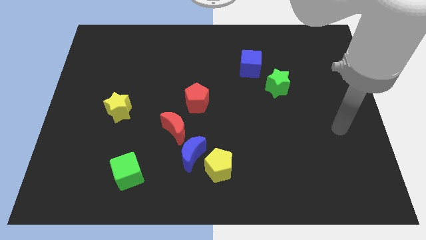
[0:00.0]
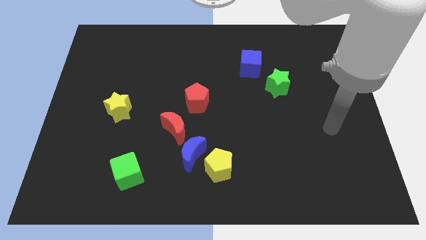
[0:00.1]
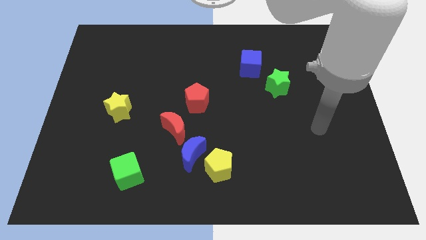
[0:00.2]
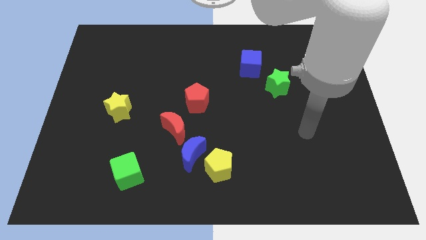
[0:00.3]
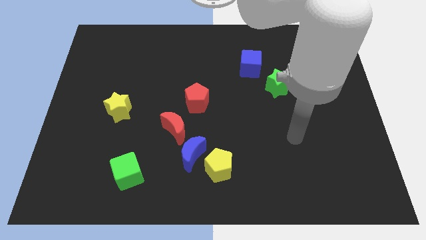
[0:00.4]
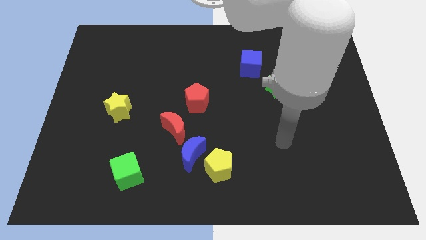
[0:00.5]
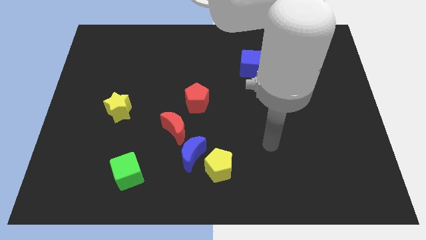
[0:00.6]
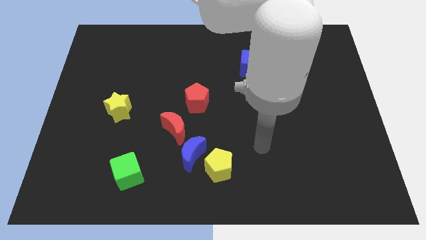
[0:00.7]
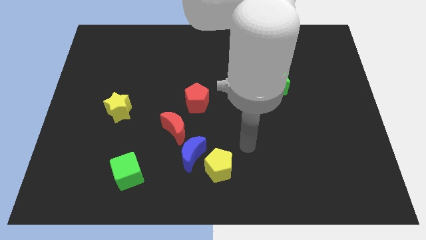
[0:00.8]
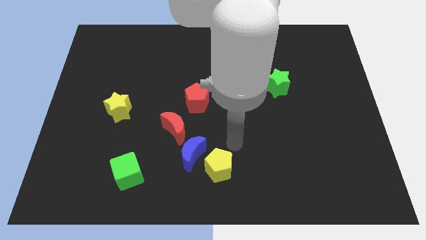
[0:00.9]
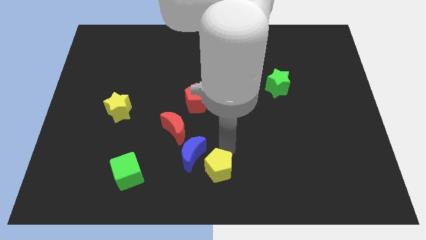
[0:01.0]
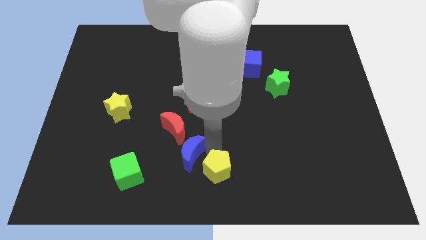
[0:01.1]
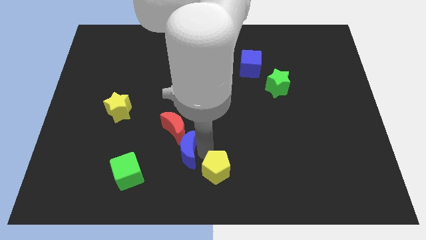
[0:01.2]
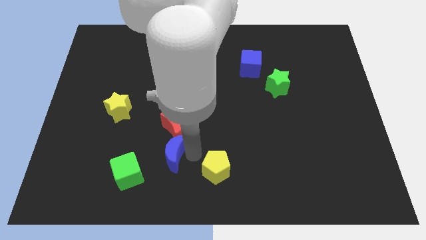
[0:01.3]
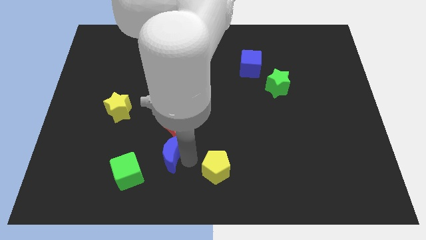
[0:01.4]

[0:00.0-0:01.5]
move the yellow pentagon away from the blue moon

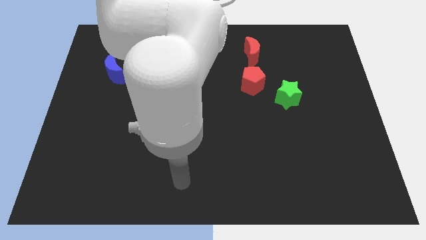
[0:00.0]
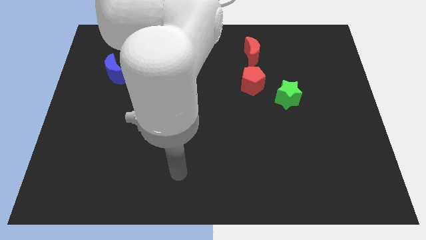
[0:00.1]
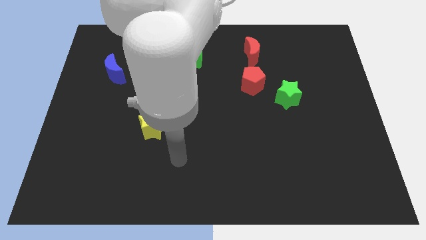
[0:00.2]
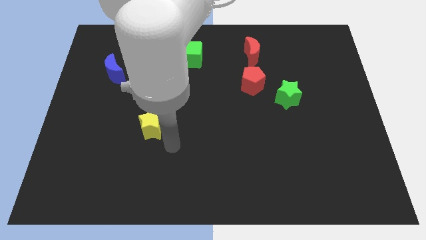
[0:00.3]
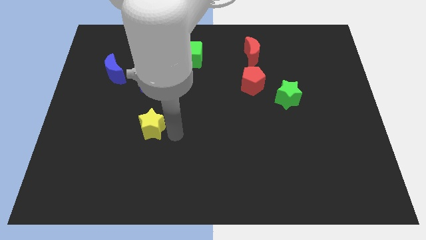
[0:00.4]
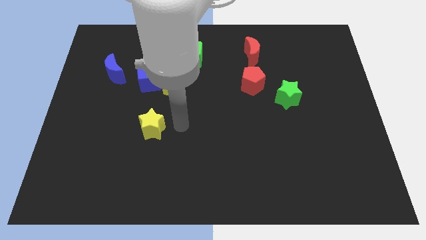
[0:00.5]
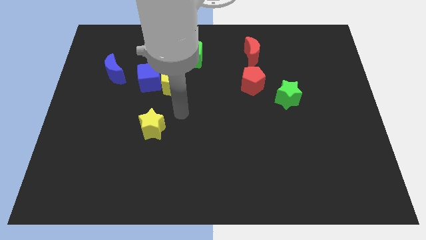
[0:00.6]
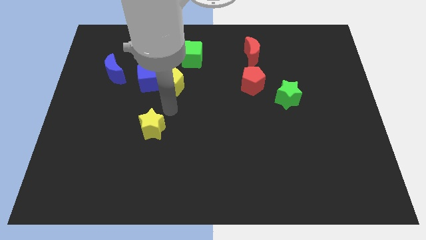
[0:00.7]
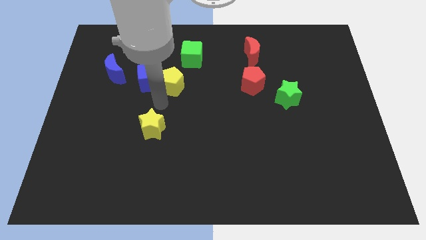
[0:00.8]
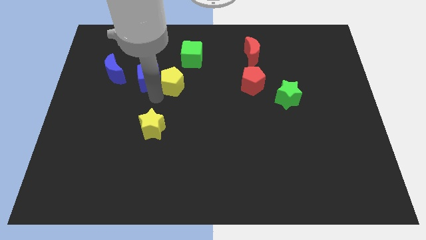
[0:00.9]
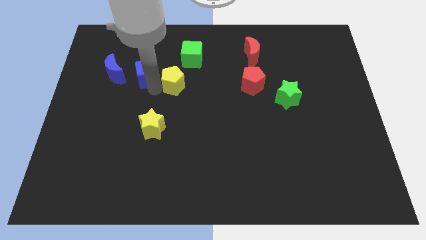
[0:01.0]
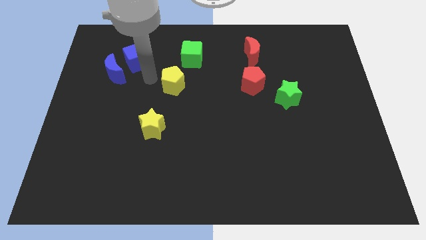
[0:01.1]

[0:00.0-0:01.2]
move the yellow pentagon away from the blue cube

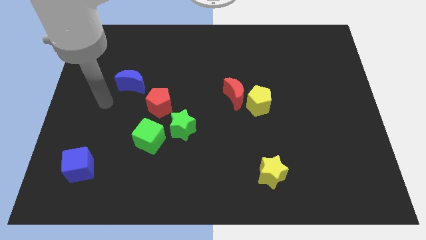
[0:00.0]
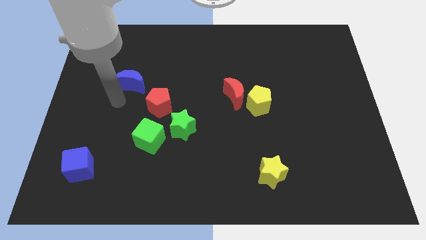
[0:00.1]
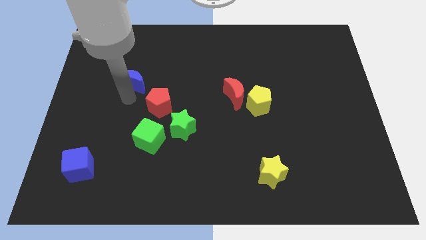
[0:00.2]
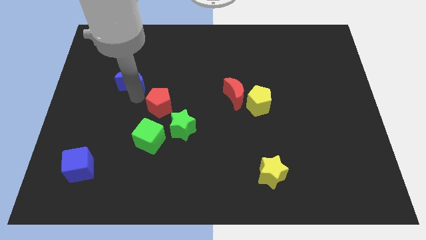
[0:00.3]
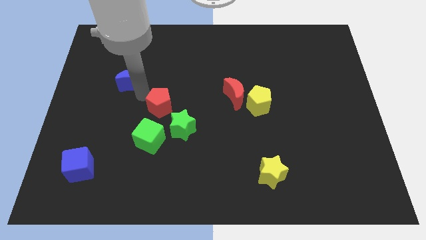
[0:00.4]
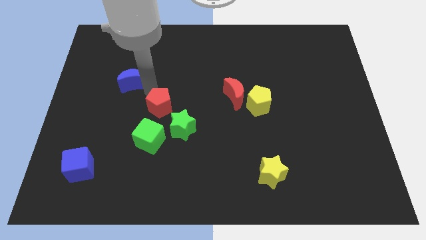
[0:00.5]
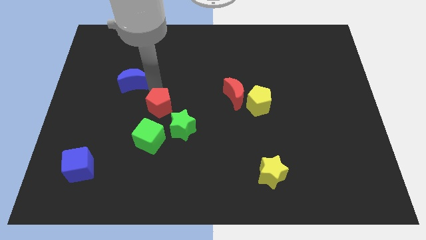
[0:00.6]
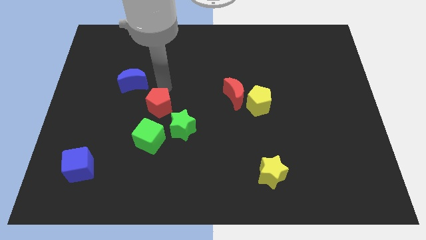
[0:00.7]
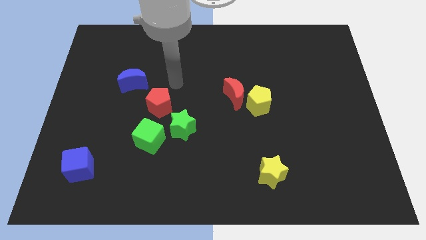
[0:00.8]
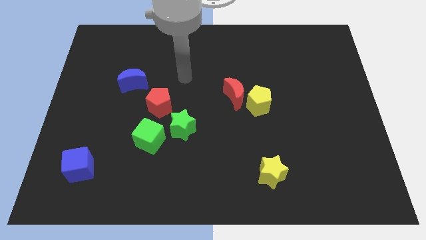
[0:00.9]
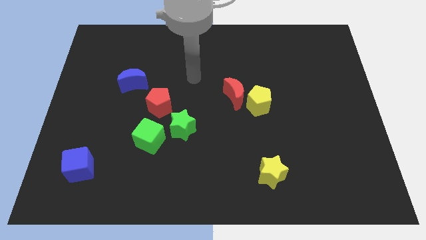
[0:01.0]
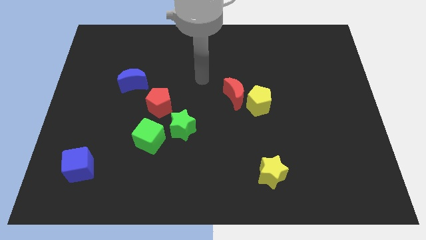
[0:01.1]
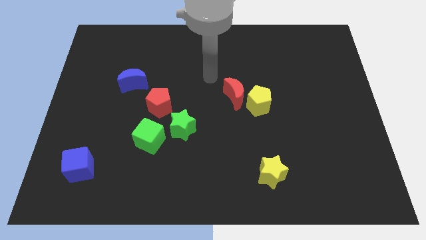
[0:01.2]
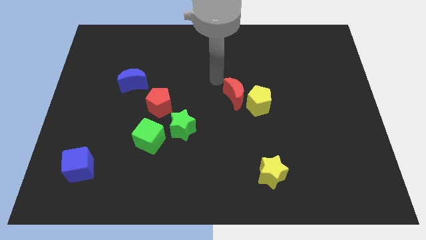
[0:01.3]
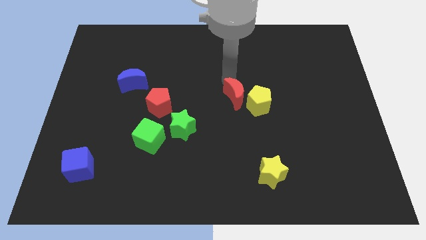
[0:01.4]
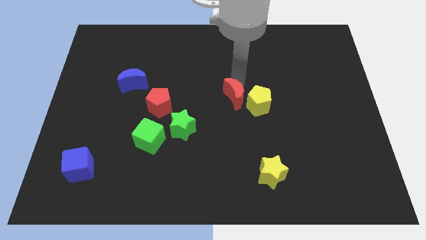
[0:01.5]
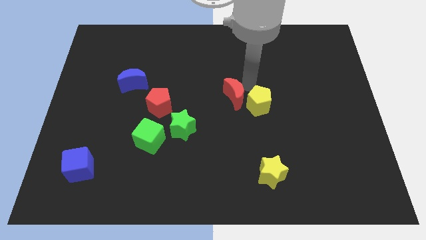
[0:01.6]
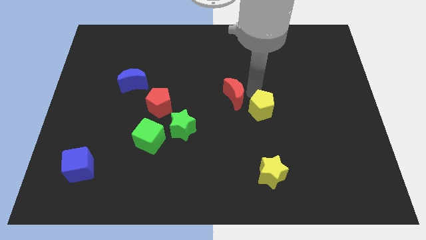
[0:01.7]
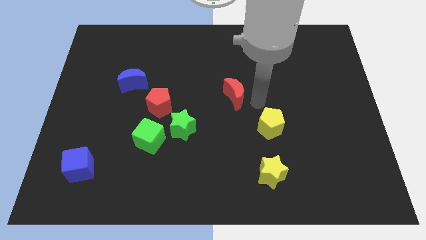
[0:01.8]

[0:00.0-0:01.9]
pull the red moon apart from the yellow pentagon

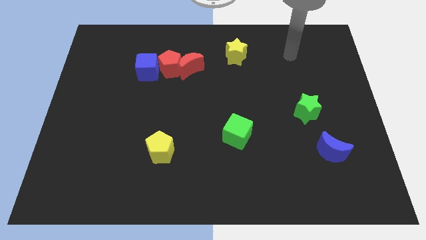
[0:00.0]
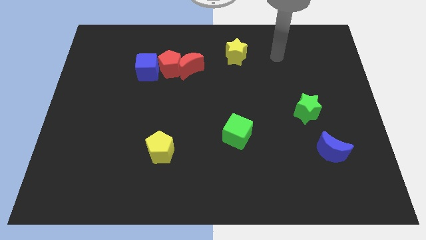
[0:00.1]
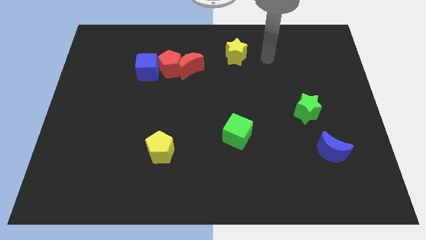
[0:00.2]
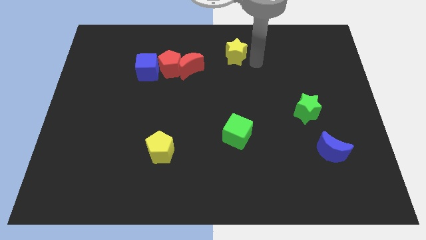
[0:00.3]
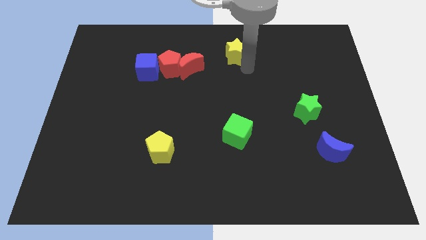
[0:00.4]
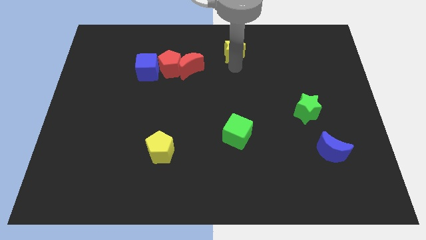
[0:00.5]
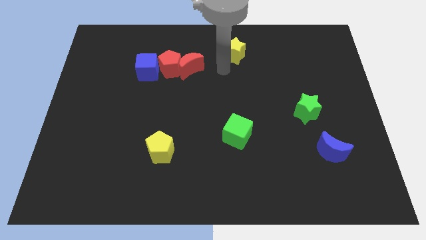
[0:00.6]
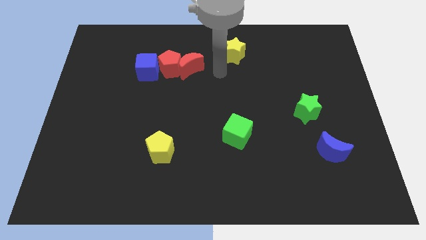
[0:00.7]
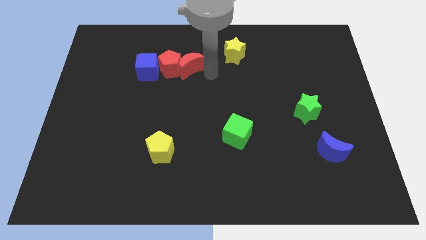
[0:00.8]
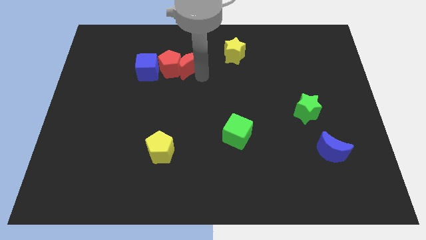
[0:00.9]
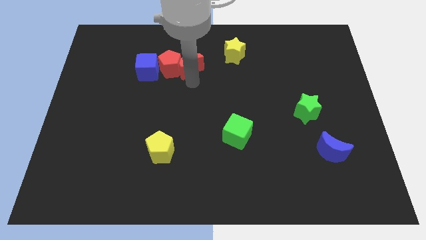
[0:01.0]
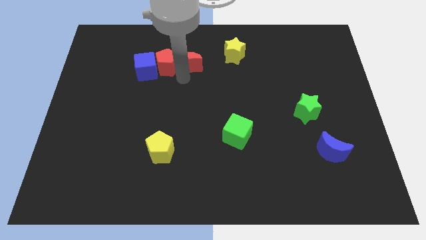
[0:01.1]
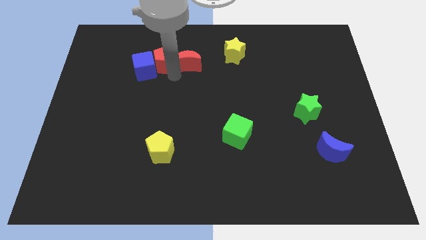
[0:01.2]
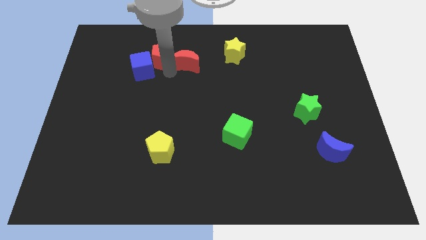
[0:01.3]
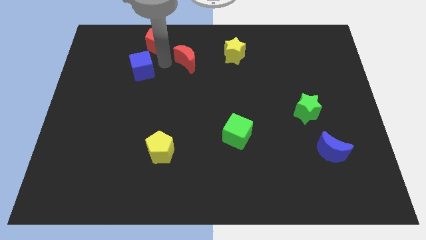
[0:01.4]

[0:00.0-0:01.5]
separate the red moon from the red pentagon

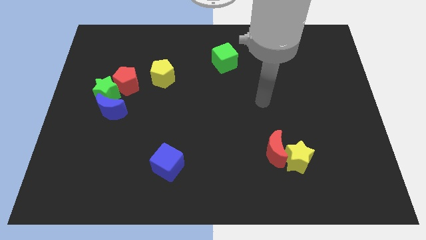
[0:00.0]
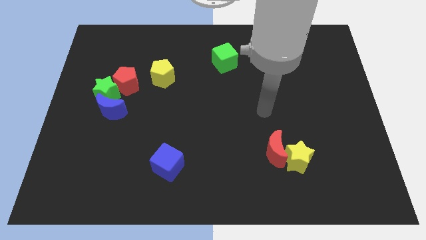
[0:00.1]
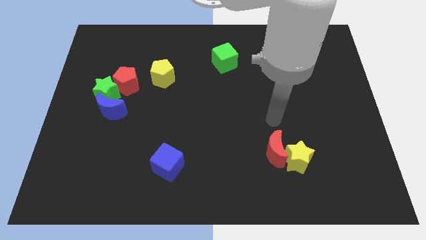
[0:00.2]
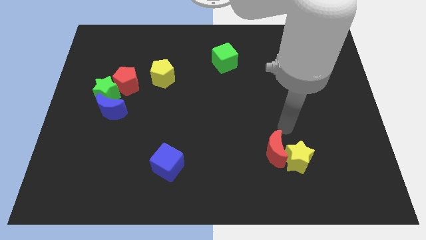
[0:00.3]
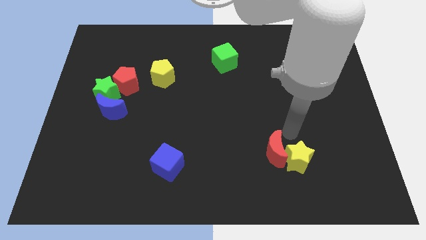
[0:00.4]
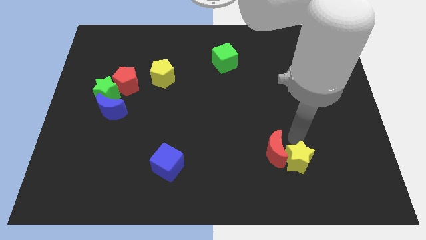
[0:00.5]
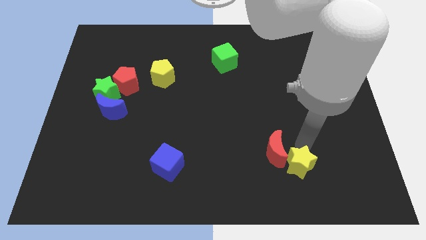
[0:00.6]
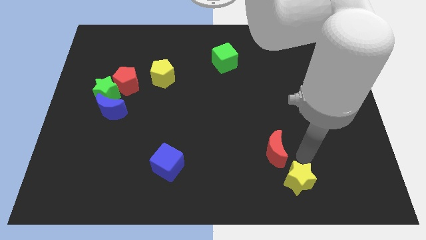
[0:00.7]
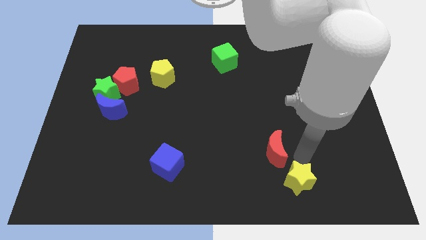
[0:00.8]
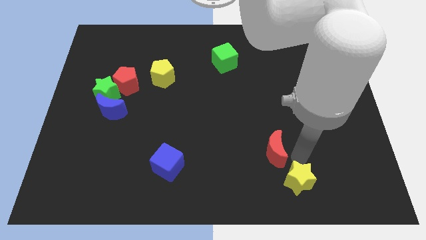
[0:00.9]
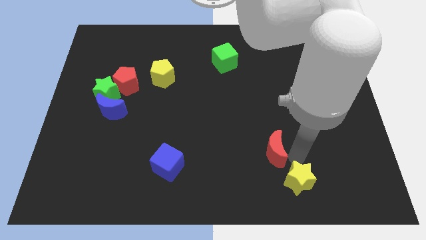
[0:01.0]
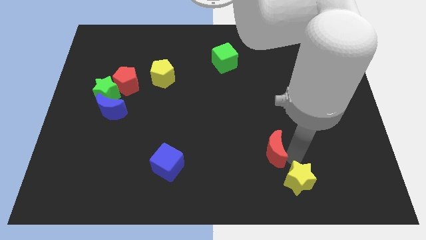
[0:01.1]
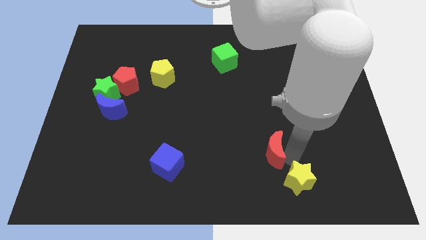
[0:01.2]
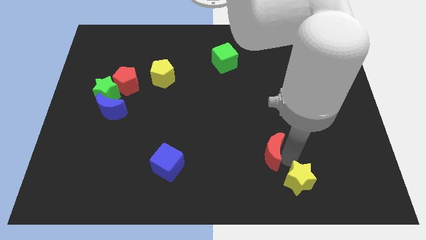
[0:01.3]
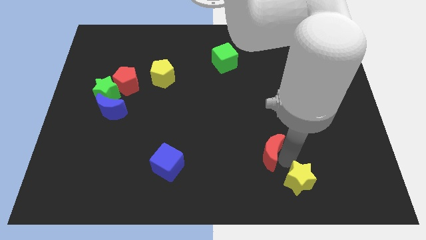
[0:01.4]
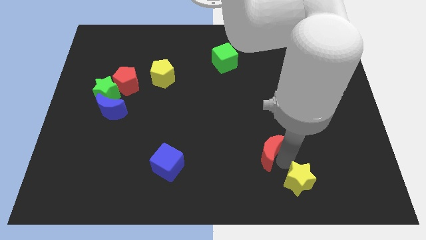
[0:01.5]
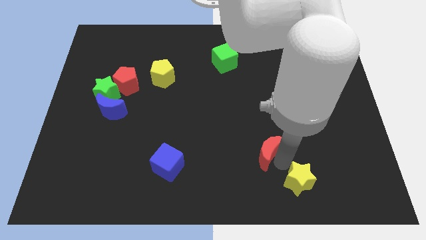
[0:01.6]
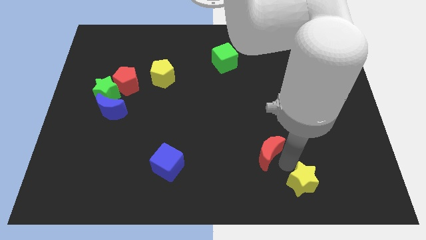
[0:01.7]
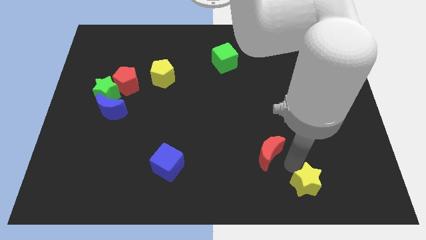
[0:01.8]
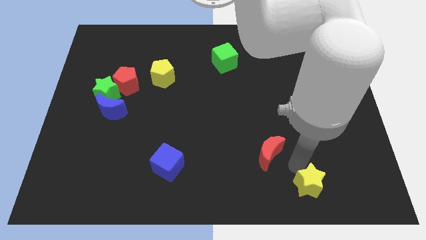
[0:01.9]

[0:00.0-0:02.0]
separate the red moon from the yellow star

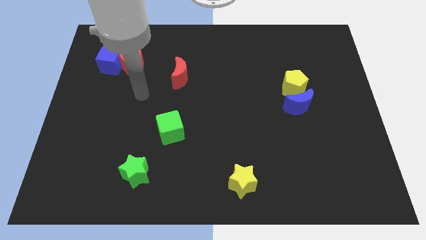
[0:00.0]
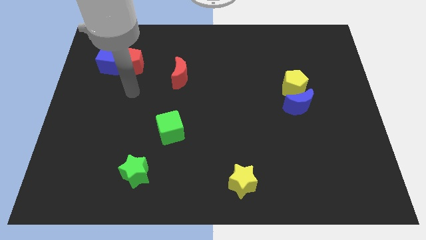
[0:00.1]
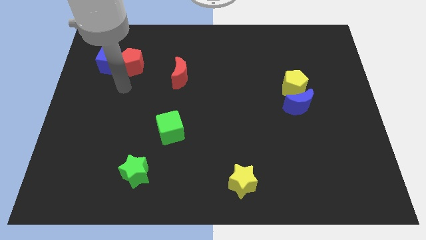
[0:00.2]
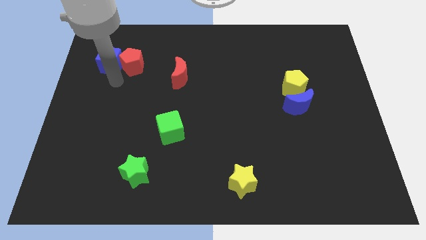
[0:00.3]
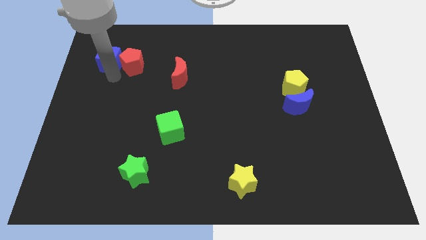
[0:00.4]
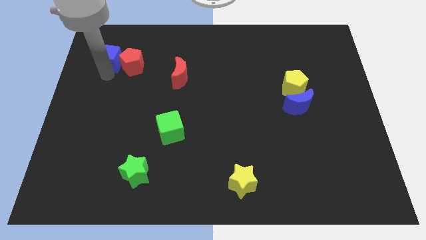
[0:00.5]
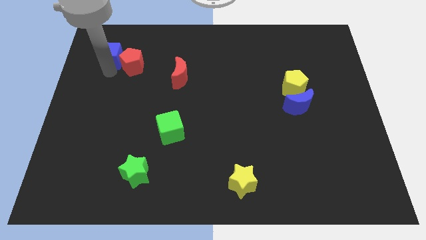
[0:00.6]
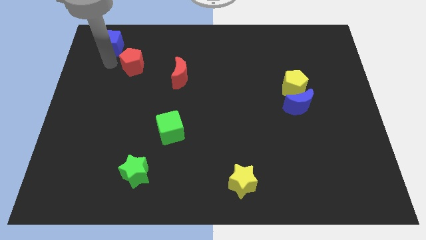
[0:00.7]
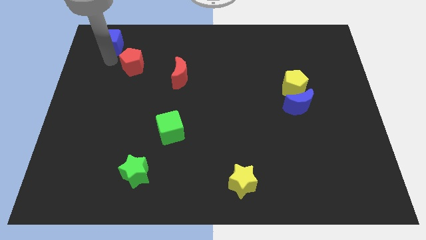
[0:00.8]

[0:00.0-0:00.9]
move the red pentagon away from the blue cube

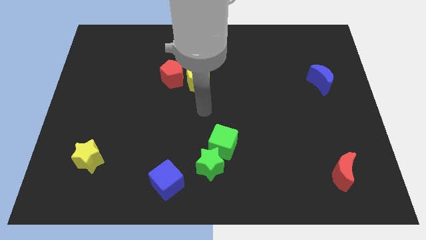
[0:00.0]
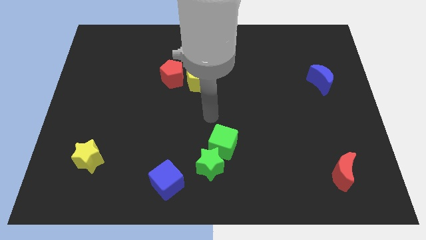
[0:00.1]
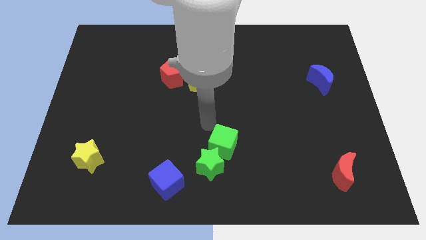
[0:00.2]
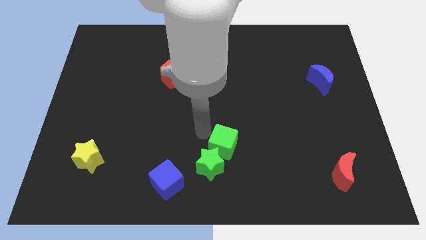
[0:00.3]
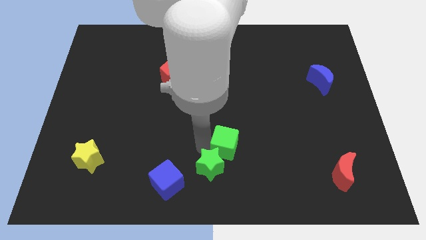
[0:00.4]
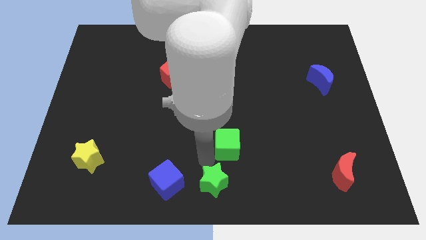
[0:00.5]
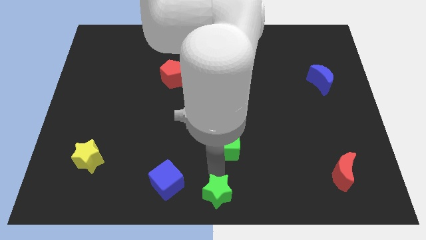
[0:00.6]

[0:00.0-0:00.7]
pull the green cube apart from the green star
